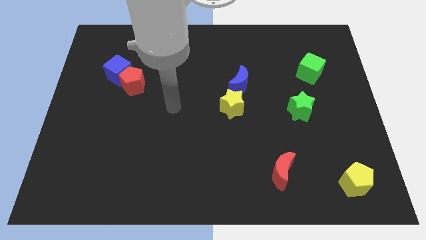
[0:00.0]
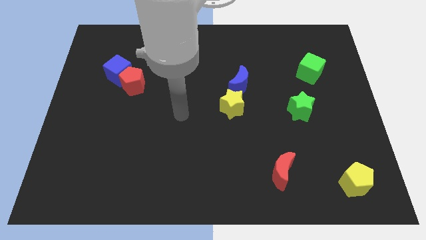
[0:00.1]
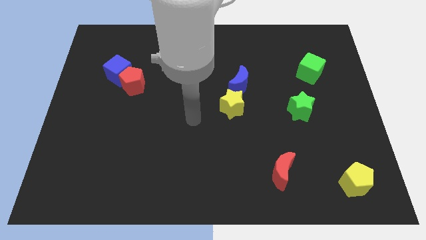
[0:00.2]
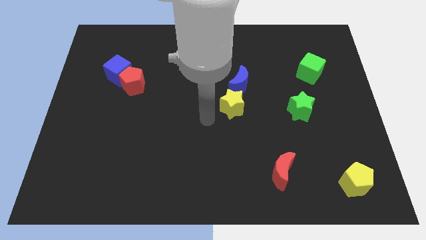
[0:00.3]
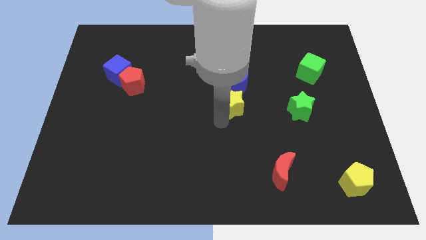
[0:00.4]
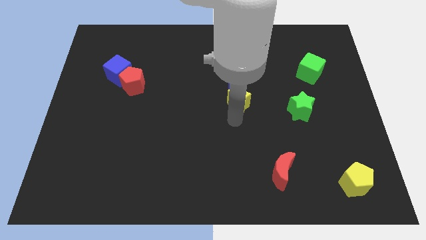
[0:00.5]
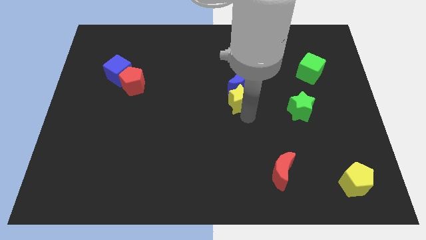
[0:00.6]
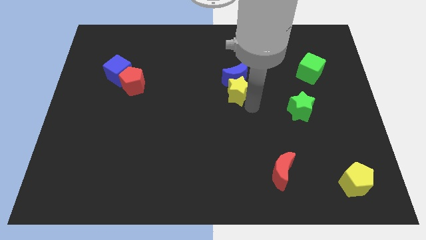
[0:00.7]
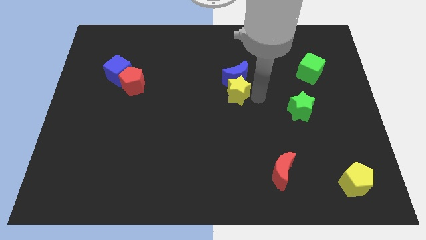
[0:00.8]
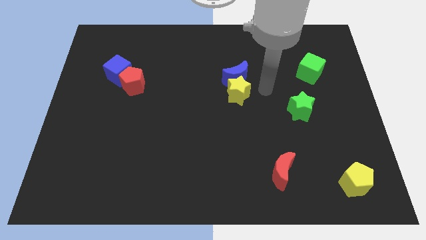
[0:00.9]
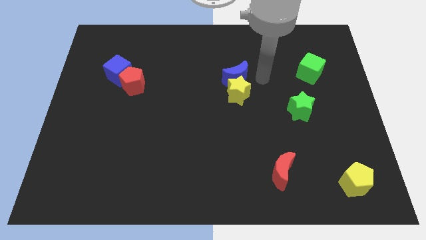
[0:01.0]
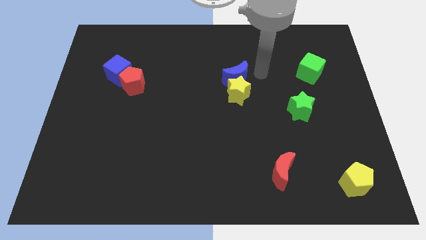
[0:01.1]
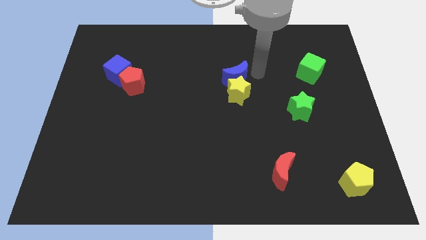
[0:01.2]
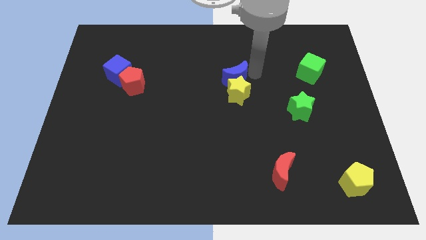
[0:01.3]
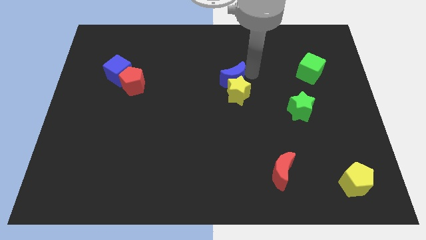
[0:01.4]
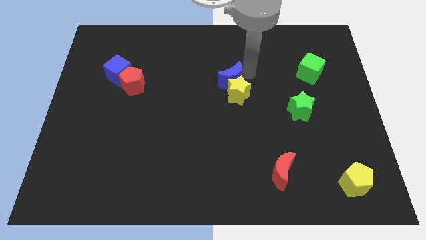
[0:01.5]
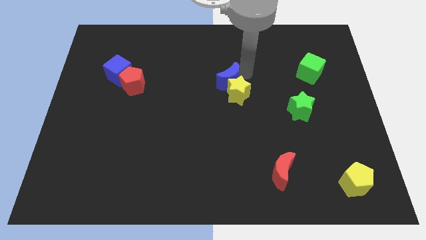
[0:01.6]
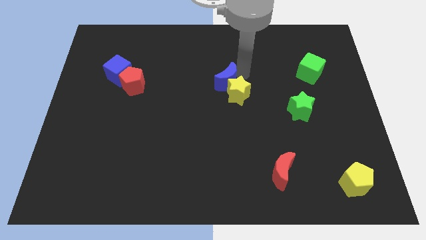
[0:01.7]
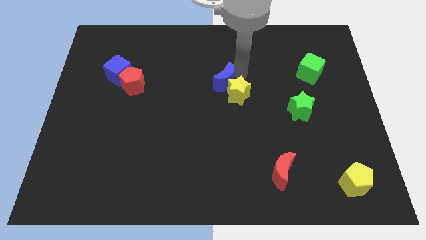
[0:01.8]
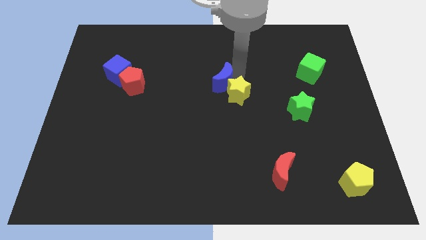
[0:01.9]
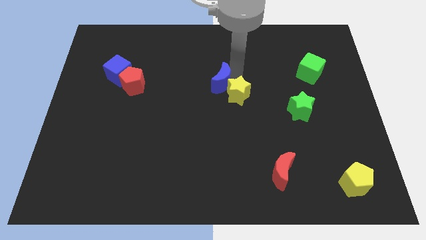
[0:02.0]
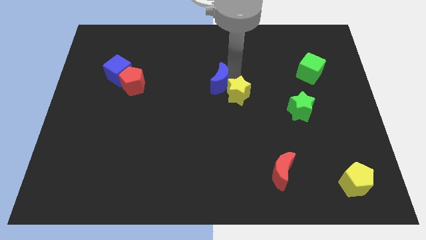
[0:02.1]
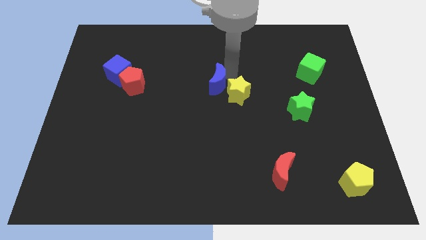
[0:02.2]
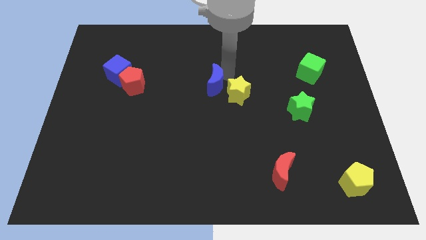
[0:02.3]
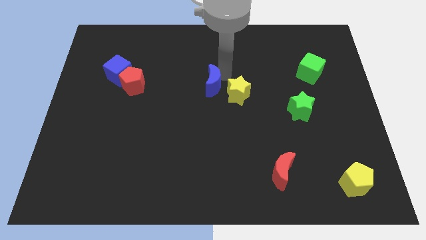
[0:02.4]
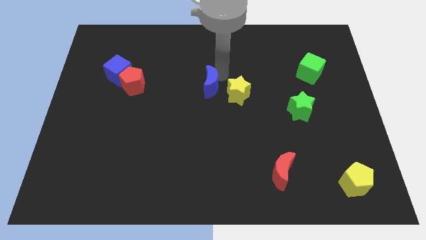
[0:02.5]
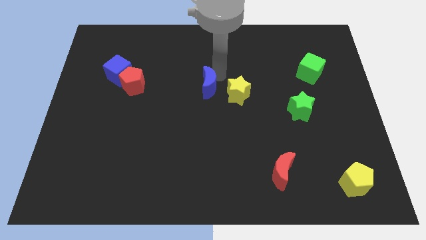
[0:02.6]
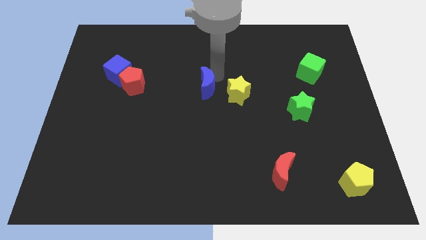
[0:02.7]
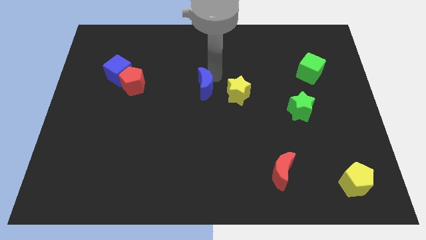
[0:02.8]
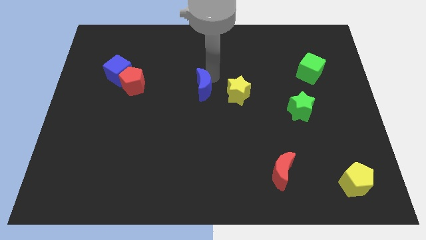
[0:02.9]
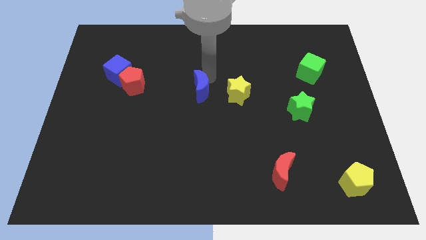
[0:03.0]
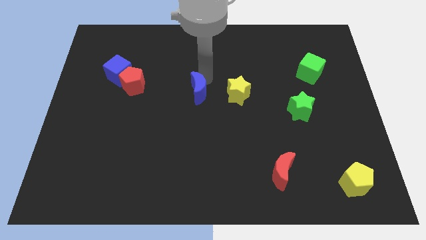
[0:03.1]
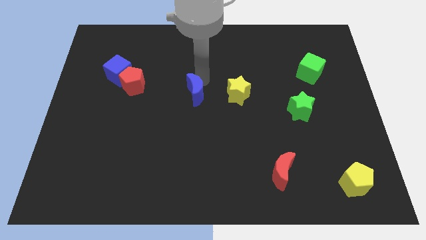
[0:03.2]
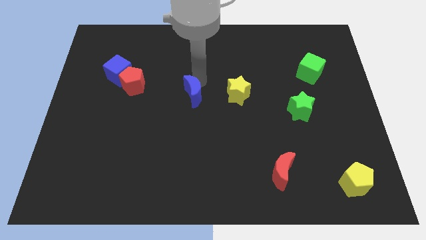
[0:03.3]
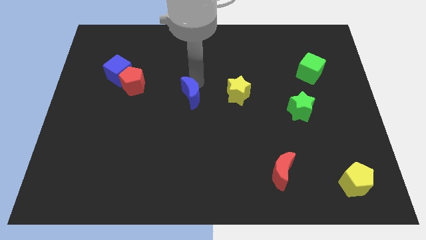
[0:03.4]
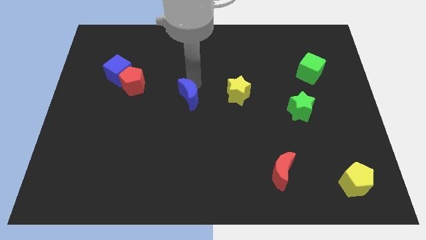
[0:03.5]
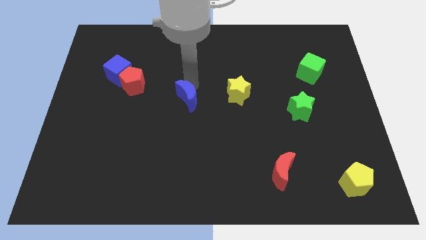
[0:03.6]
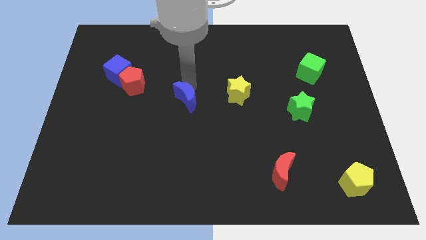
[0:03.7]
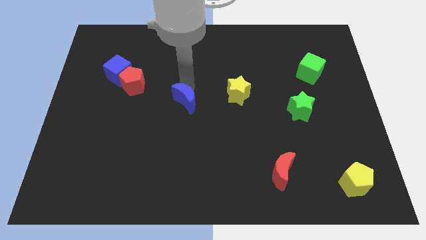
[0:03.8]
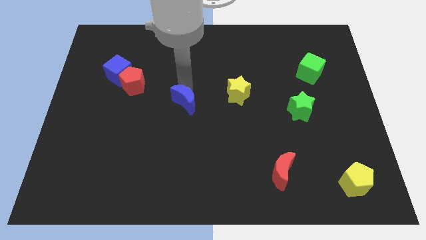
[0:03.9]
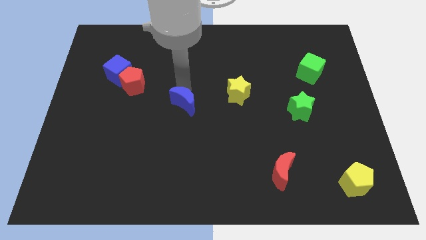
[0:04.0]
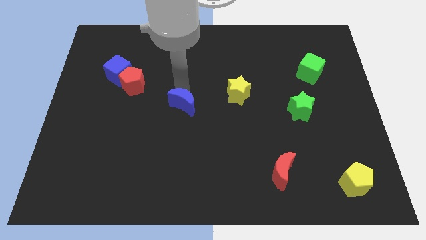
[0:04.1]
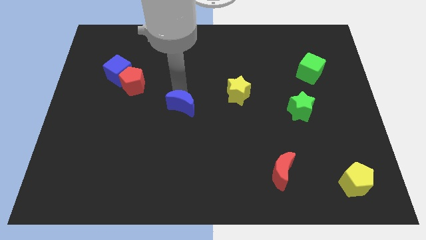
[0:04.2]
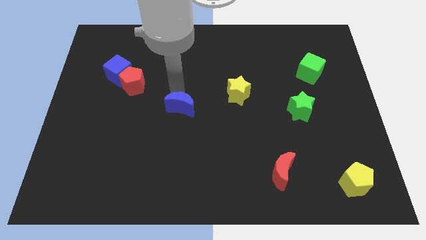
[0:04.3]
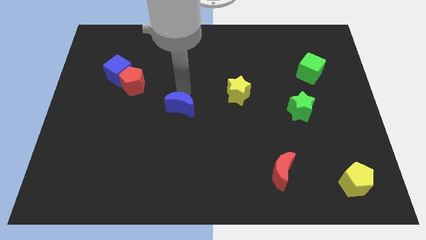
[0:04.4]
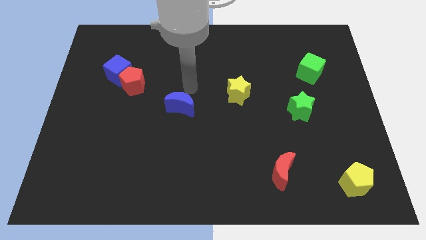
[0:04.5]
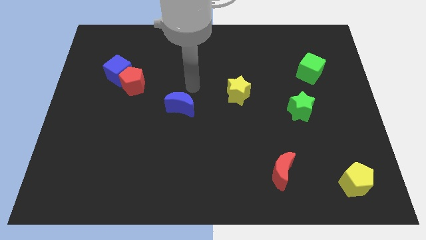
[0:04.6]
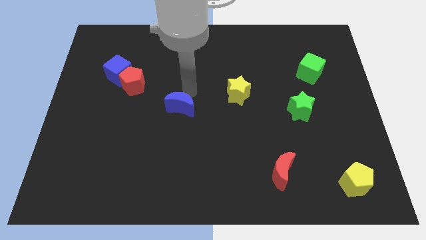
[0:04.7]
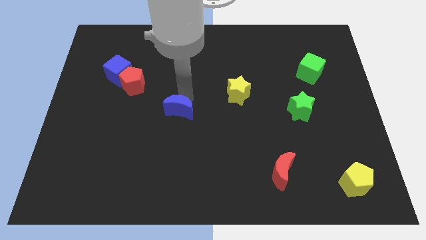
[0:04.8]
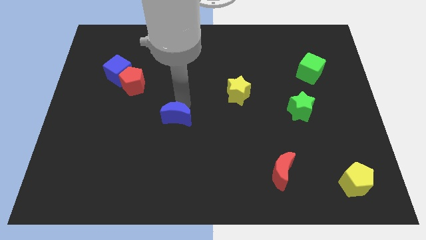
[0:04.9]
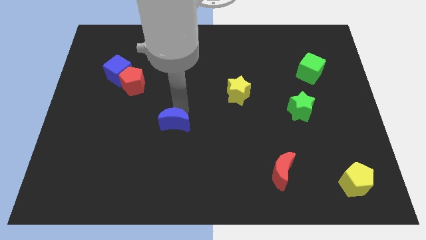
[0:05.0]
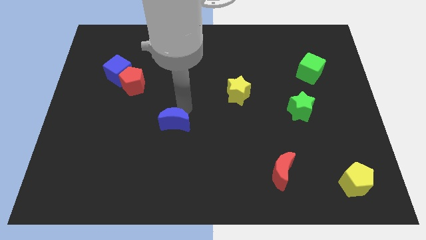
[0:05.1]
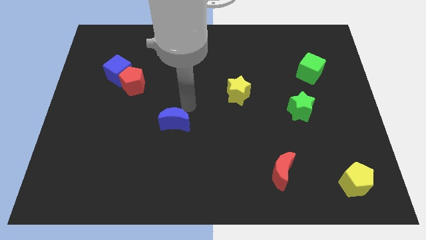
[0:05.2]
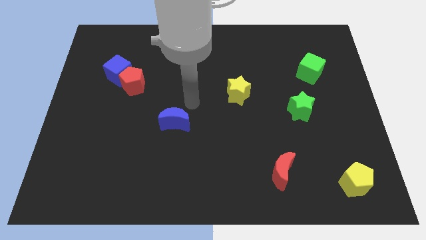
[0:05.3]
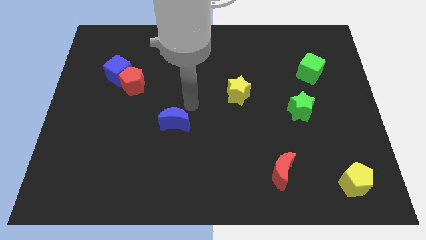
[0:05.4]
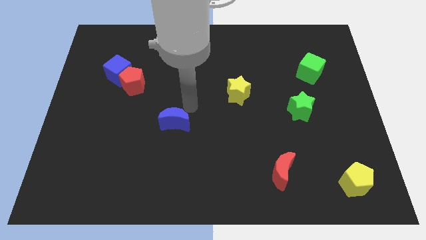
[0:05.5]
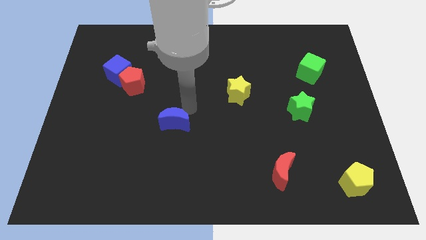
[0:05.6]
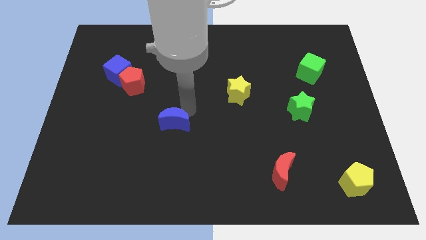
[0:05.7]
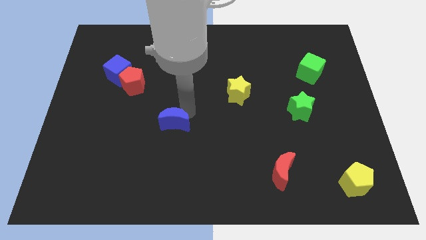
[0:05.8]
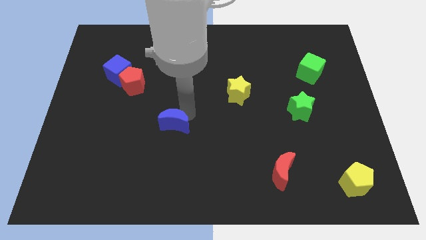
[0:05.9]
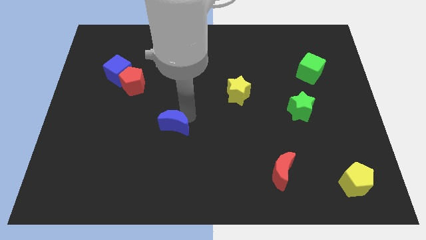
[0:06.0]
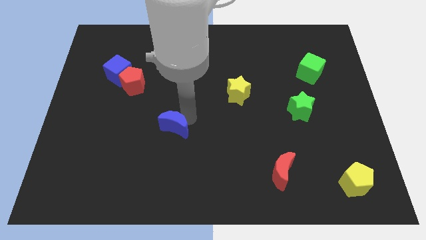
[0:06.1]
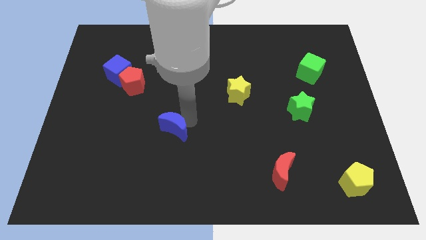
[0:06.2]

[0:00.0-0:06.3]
push the blue moon down and then to the left

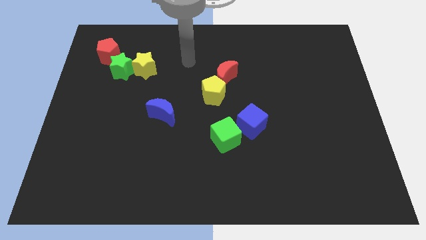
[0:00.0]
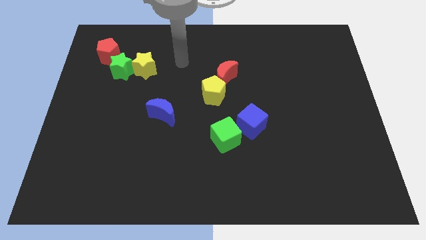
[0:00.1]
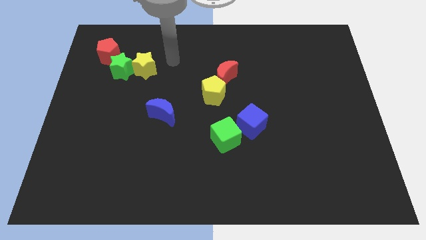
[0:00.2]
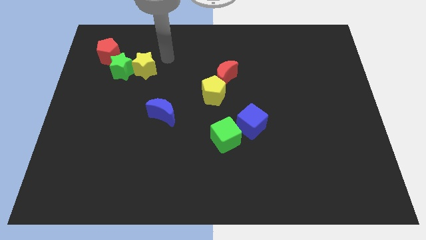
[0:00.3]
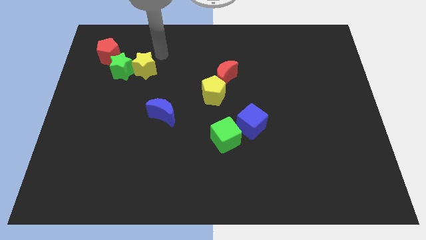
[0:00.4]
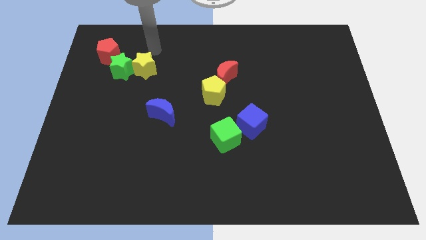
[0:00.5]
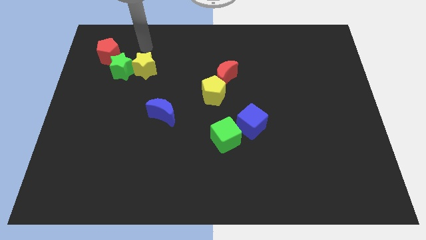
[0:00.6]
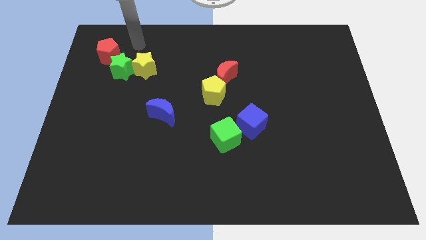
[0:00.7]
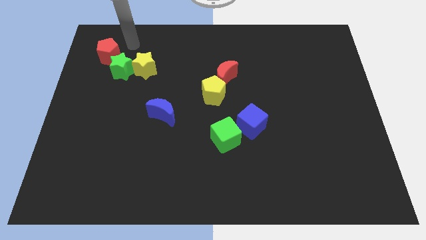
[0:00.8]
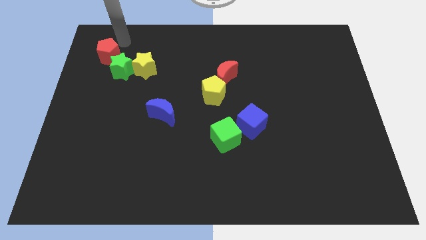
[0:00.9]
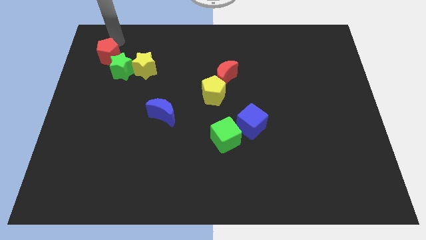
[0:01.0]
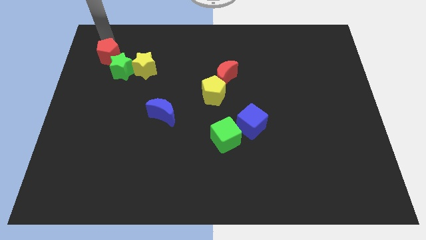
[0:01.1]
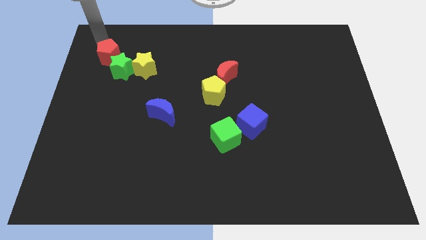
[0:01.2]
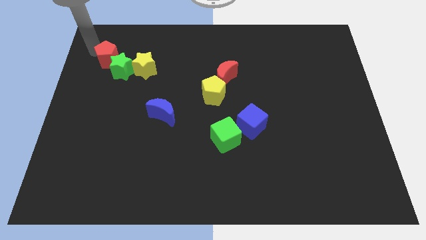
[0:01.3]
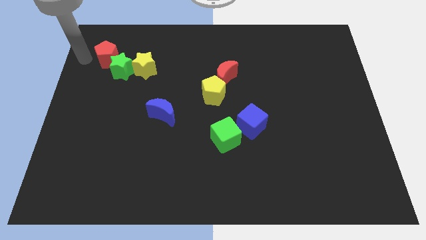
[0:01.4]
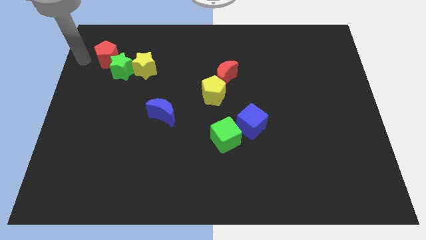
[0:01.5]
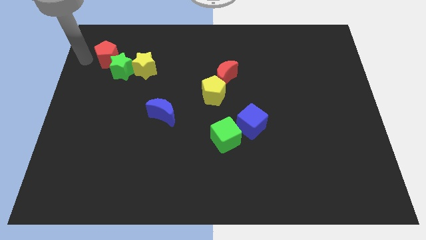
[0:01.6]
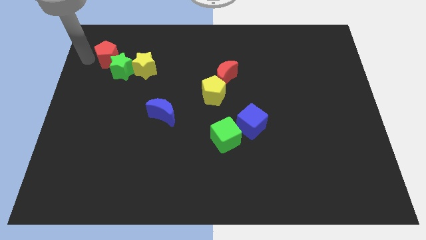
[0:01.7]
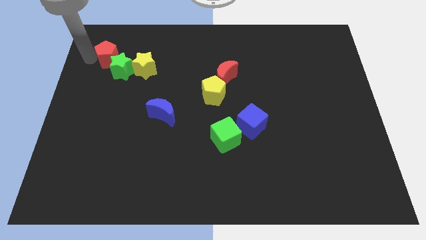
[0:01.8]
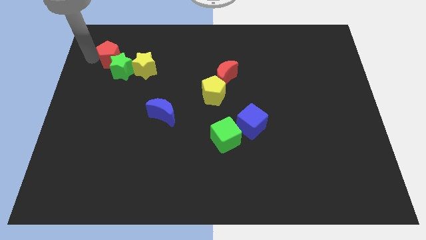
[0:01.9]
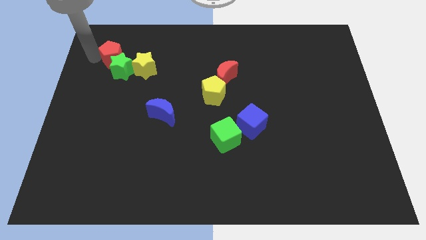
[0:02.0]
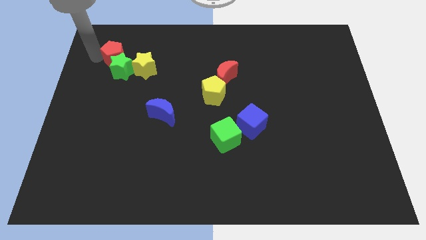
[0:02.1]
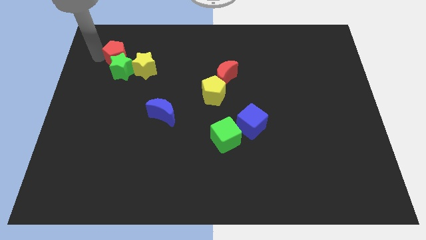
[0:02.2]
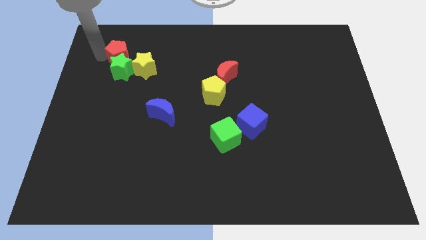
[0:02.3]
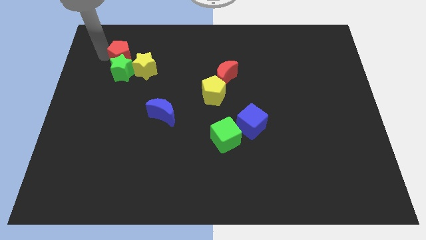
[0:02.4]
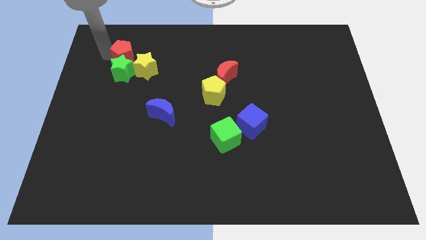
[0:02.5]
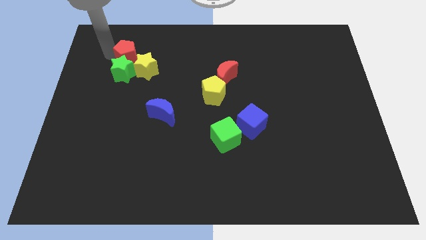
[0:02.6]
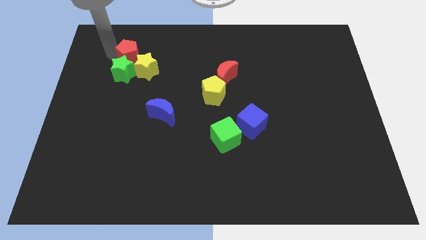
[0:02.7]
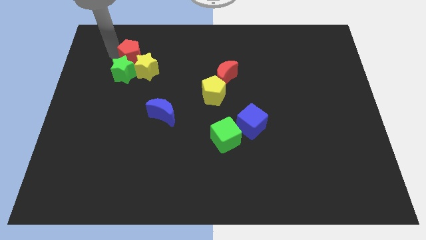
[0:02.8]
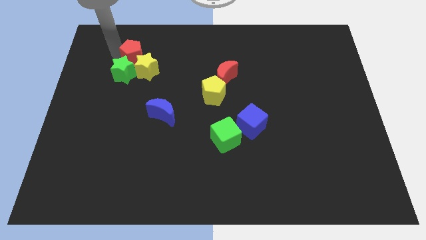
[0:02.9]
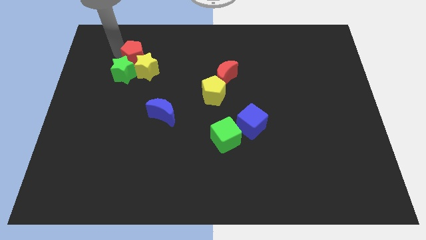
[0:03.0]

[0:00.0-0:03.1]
slide the red pentagon slightly right
